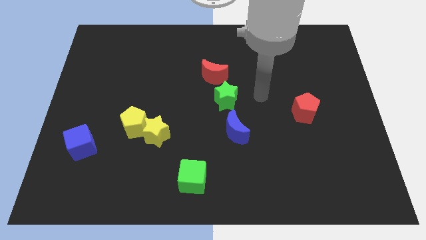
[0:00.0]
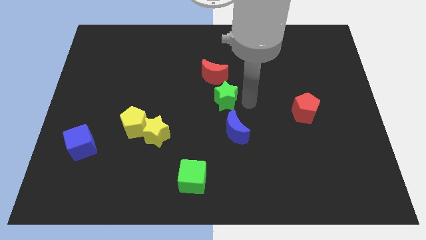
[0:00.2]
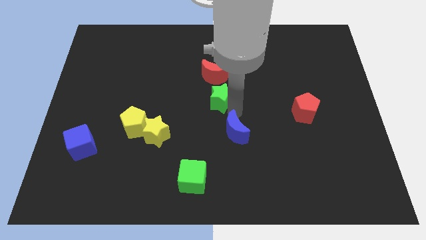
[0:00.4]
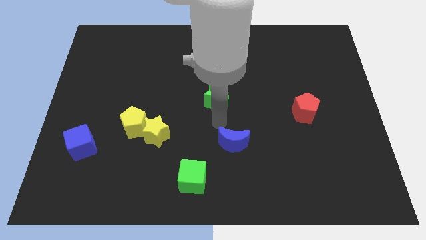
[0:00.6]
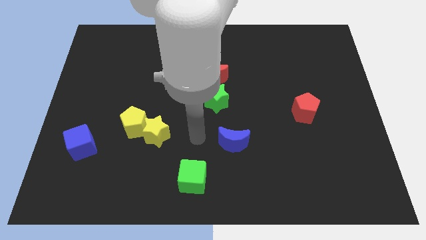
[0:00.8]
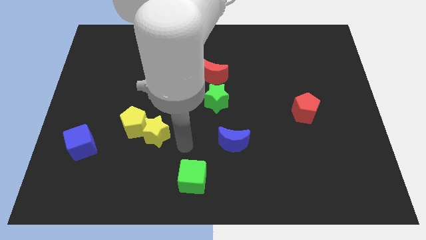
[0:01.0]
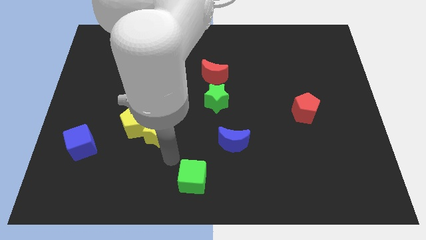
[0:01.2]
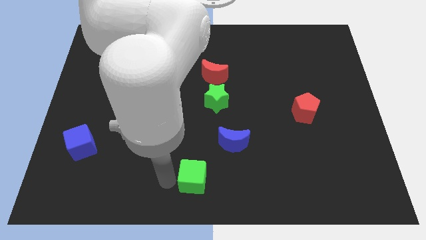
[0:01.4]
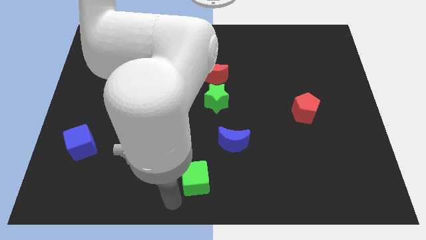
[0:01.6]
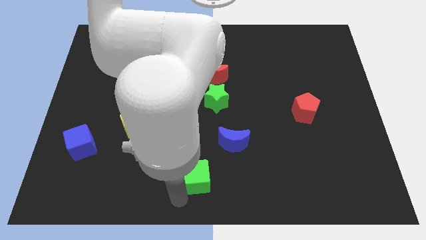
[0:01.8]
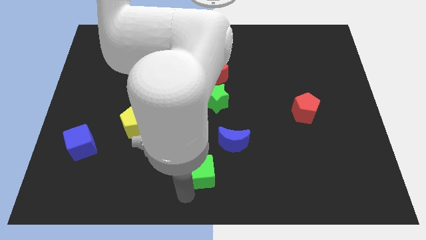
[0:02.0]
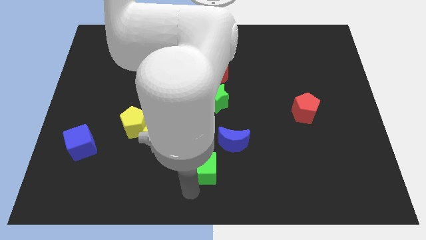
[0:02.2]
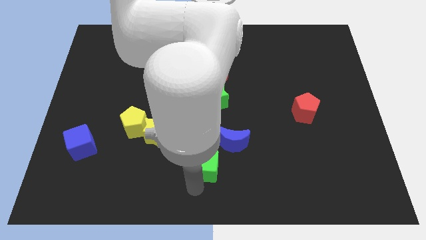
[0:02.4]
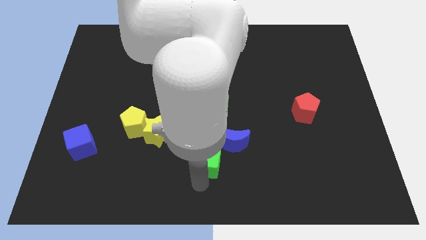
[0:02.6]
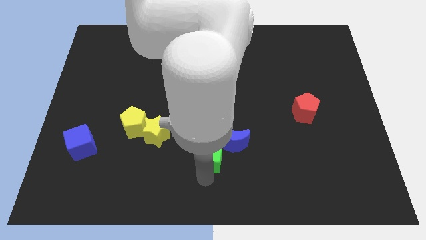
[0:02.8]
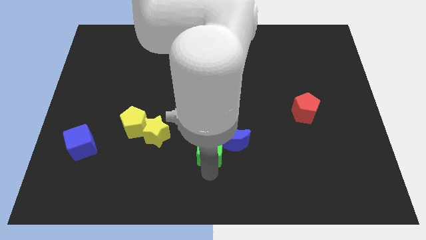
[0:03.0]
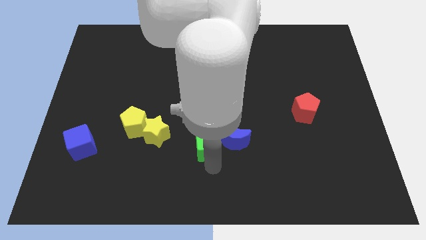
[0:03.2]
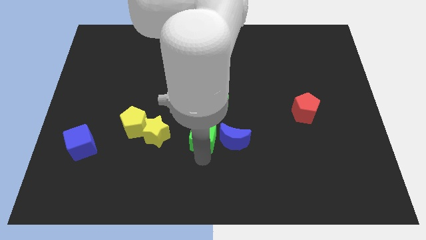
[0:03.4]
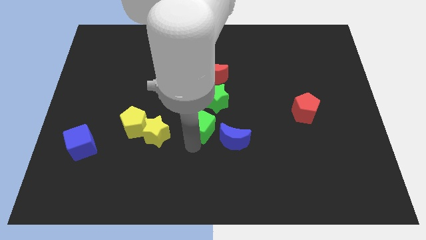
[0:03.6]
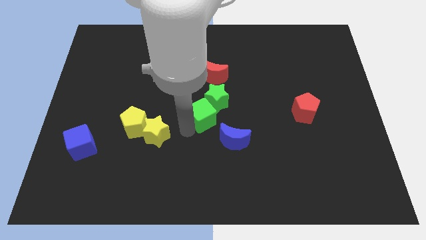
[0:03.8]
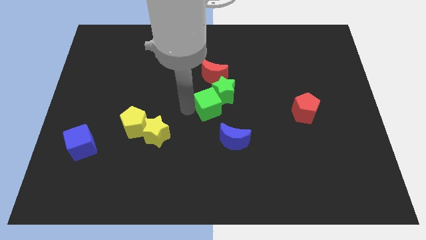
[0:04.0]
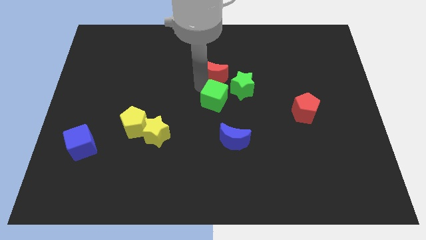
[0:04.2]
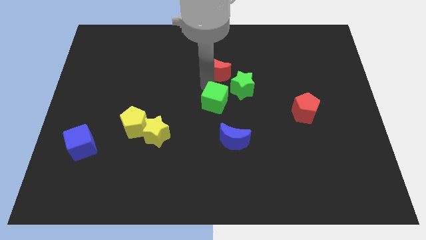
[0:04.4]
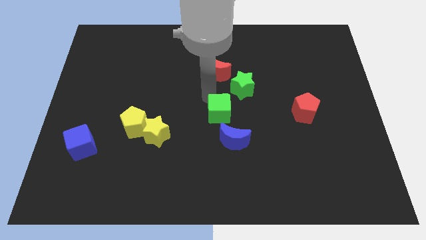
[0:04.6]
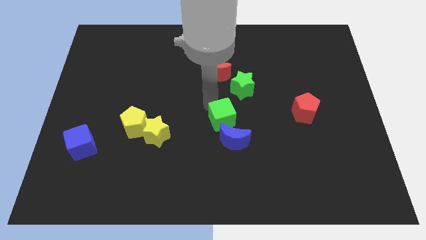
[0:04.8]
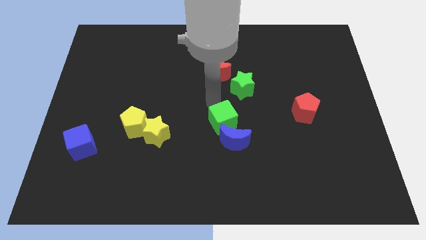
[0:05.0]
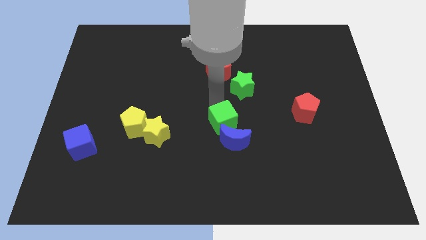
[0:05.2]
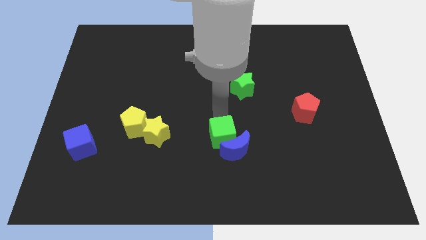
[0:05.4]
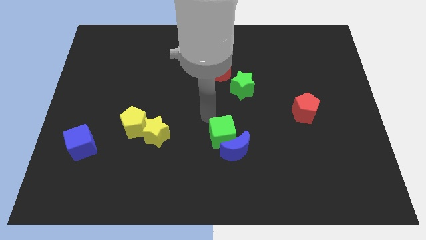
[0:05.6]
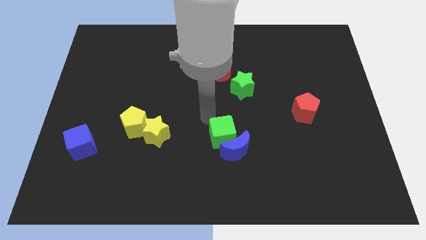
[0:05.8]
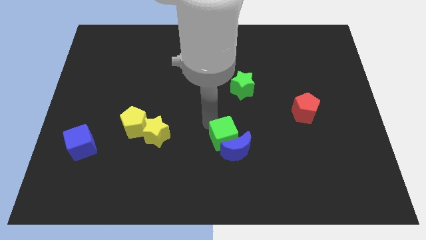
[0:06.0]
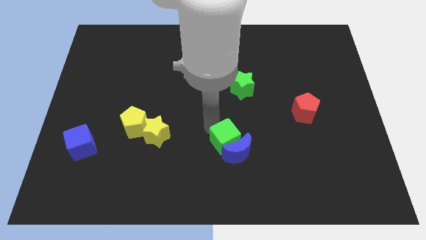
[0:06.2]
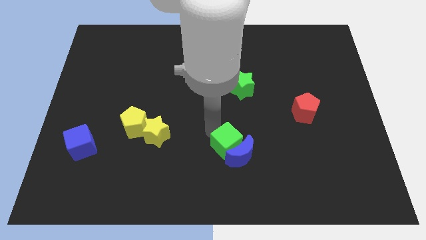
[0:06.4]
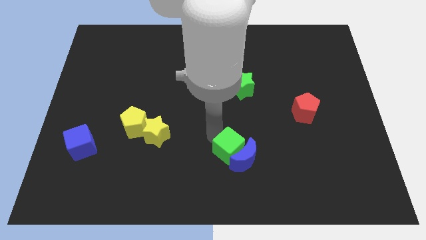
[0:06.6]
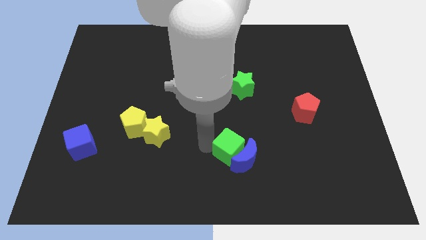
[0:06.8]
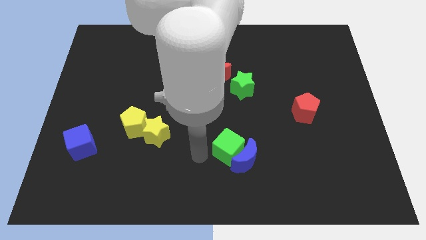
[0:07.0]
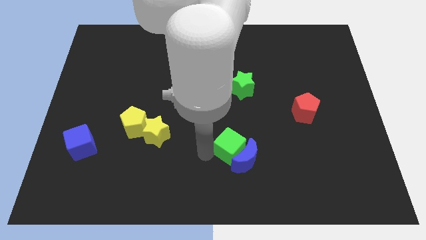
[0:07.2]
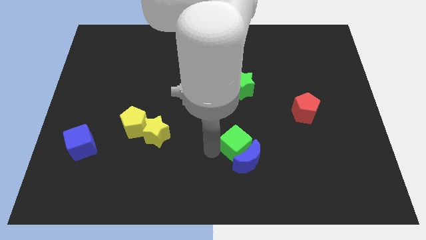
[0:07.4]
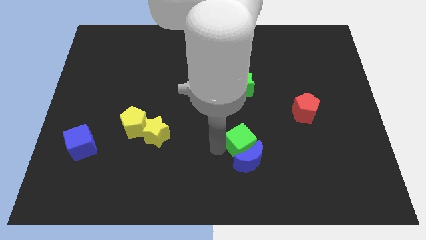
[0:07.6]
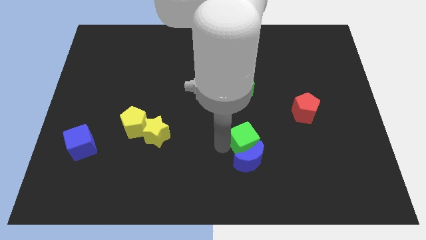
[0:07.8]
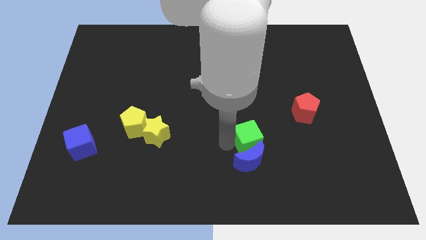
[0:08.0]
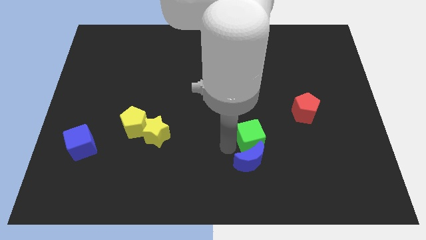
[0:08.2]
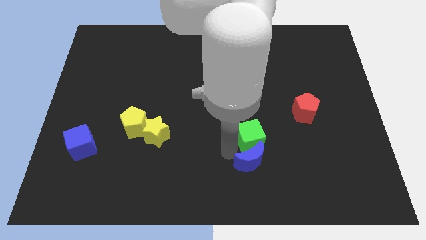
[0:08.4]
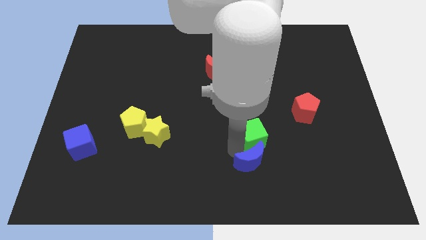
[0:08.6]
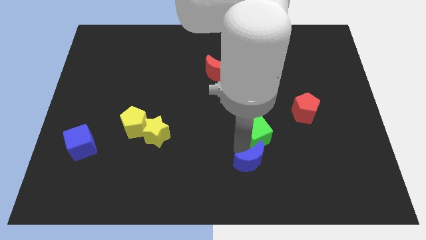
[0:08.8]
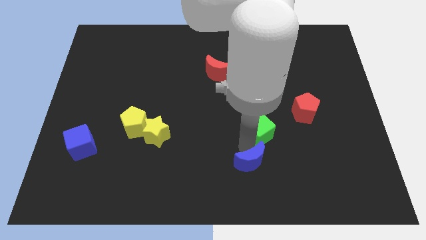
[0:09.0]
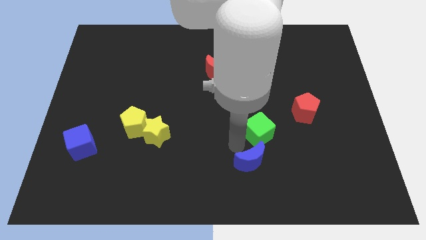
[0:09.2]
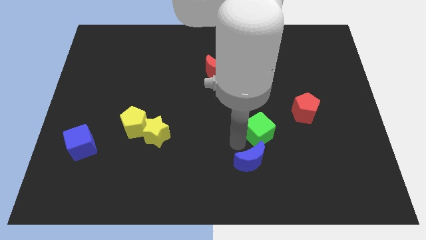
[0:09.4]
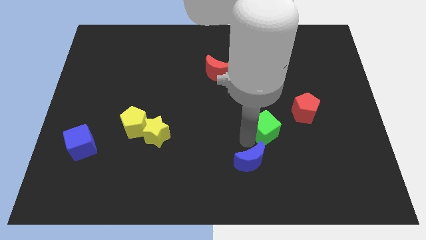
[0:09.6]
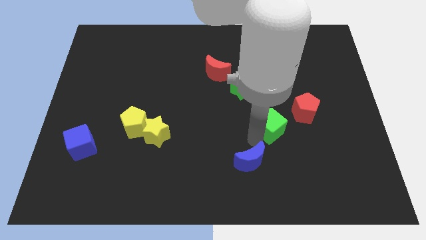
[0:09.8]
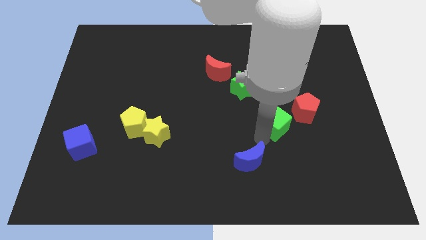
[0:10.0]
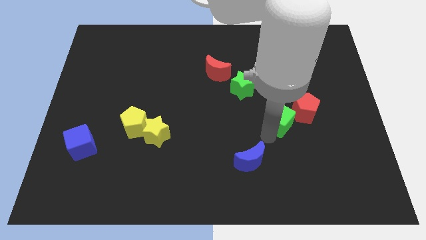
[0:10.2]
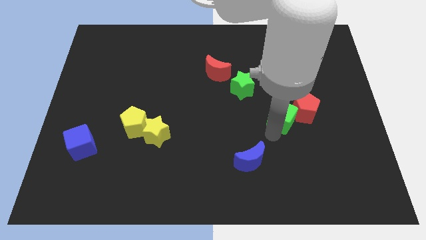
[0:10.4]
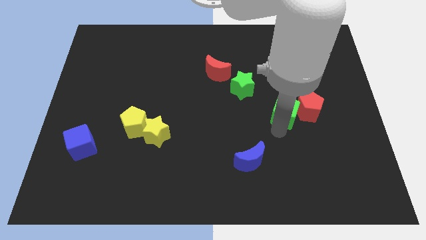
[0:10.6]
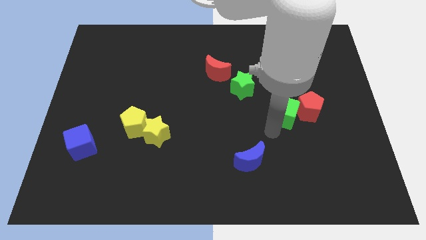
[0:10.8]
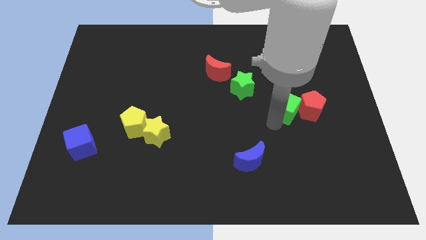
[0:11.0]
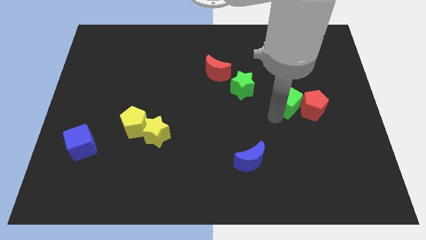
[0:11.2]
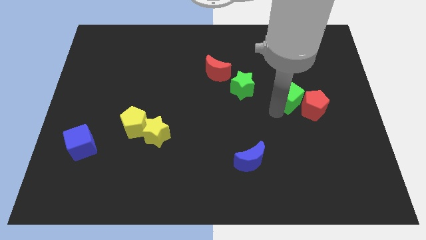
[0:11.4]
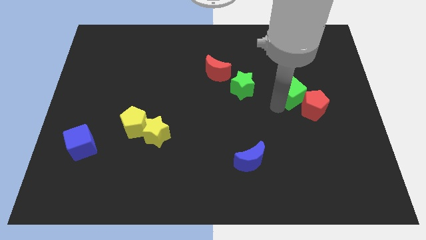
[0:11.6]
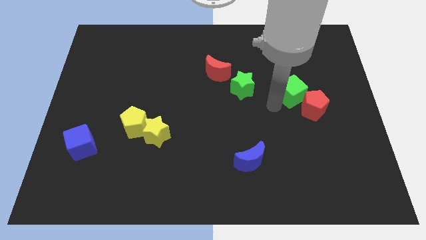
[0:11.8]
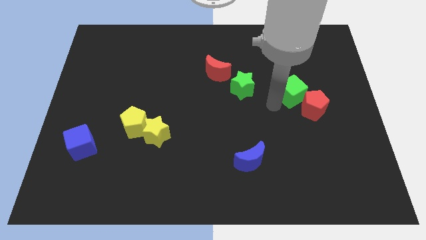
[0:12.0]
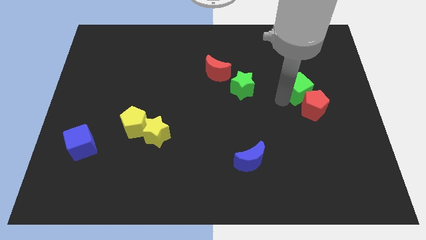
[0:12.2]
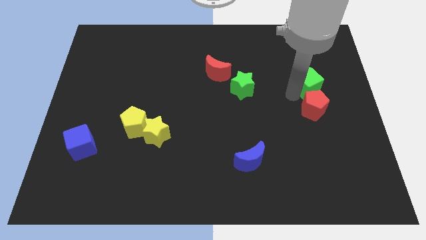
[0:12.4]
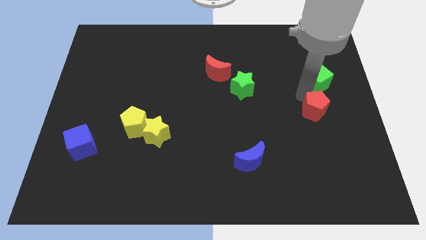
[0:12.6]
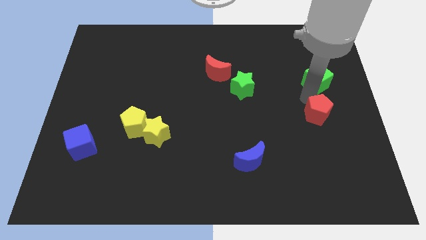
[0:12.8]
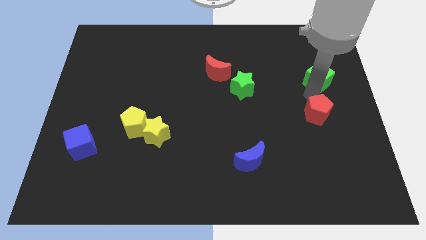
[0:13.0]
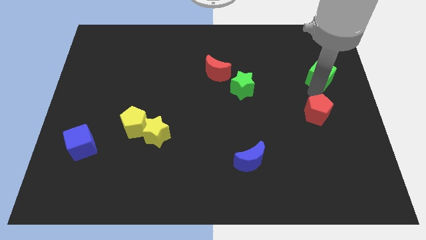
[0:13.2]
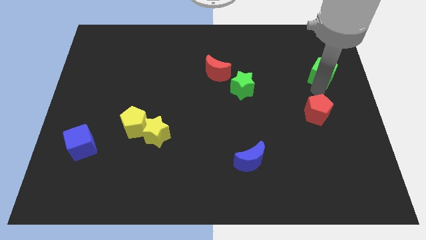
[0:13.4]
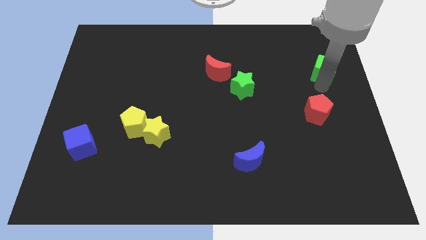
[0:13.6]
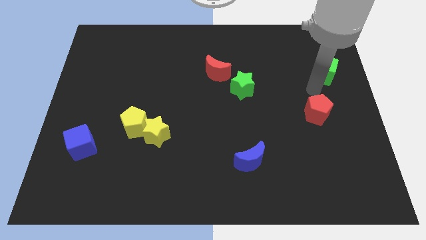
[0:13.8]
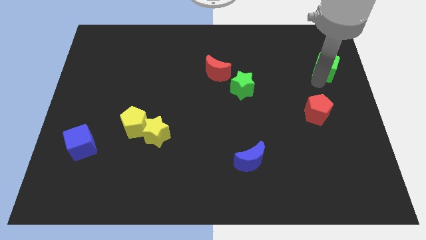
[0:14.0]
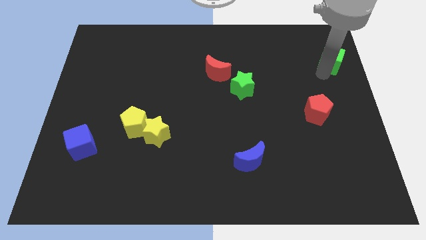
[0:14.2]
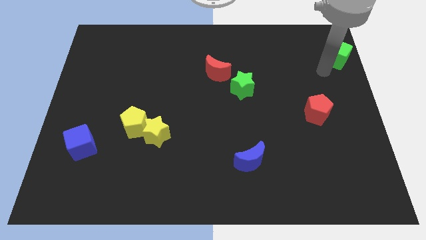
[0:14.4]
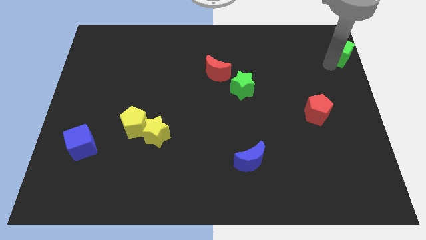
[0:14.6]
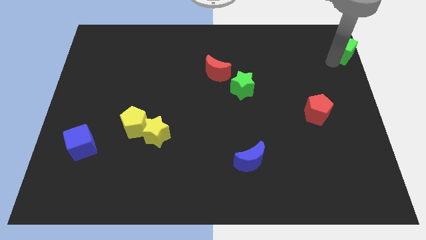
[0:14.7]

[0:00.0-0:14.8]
move the green cube to the upper right corner
